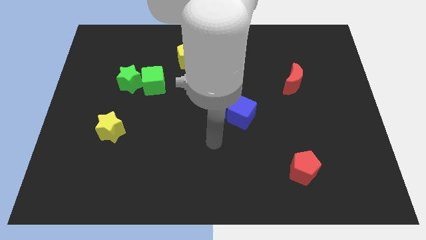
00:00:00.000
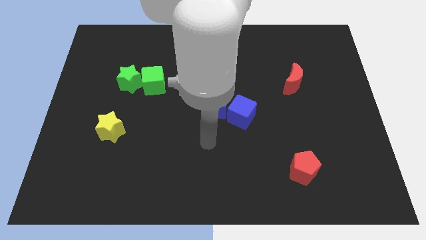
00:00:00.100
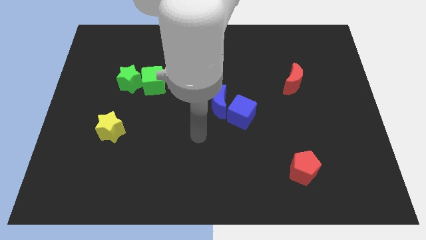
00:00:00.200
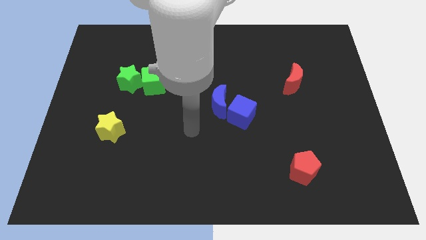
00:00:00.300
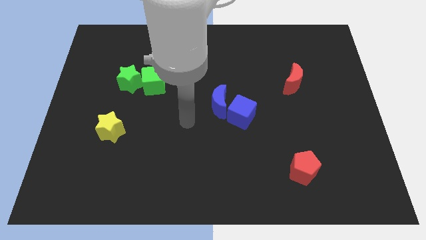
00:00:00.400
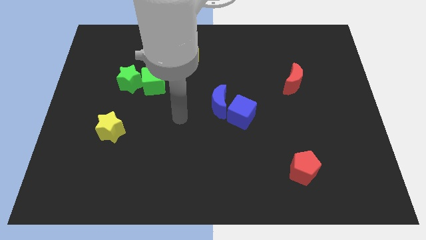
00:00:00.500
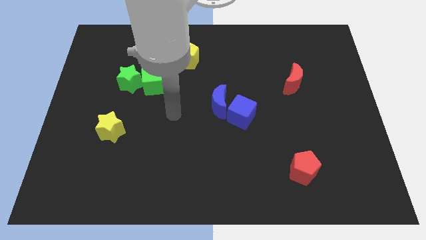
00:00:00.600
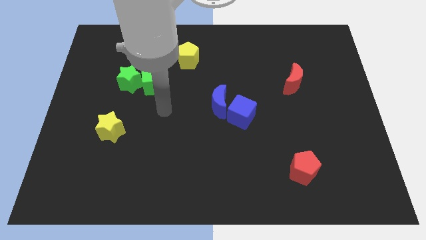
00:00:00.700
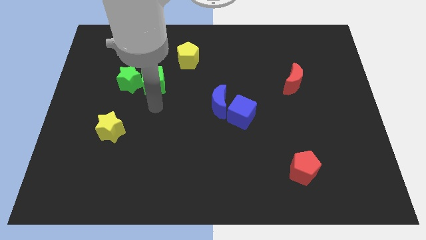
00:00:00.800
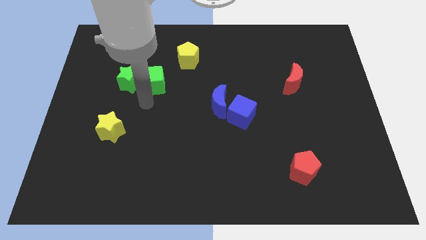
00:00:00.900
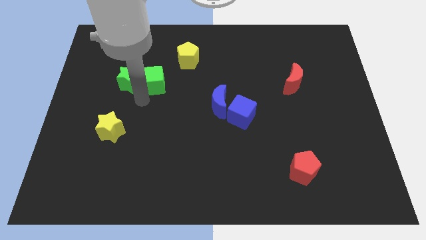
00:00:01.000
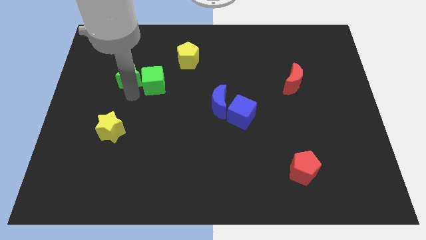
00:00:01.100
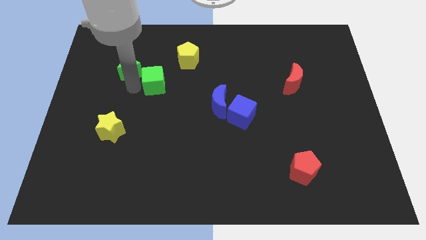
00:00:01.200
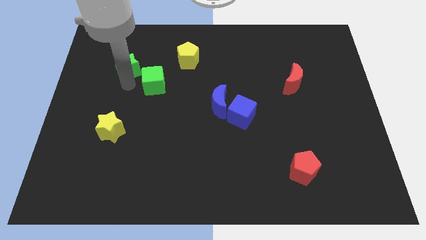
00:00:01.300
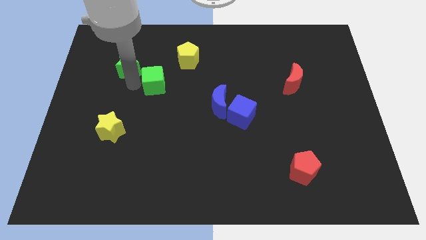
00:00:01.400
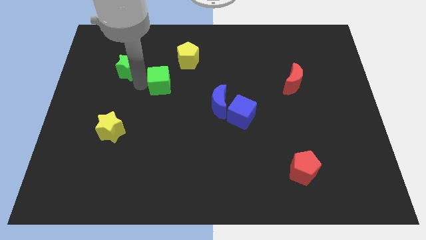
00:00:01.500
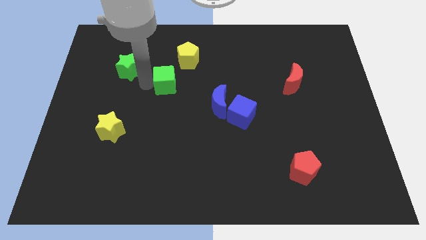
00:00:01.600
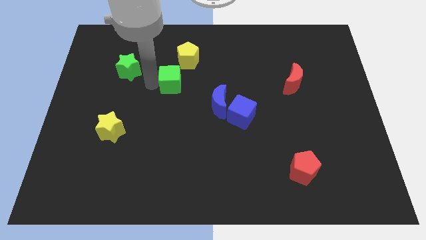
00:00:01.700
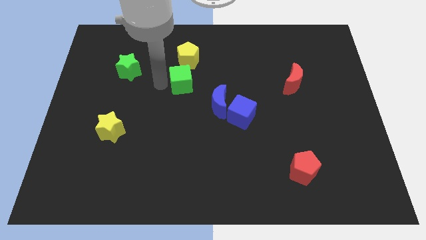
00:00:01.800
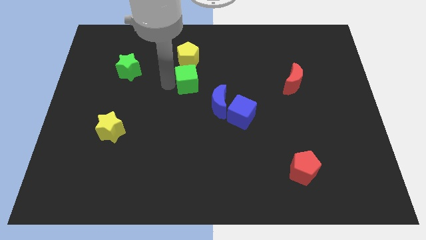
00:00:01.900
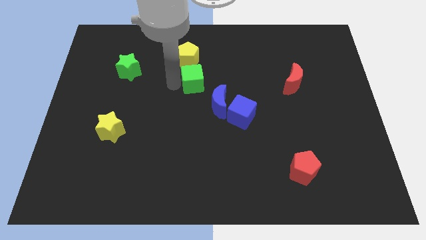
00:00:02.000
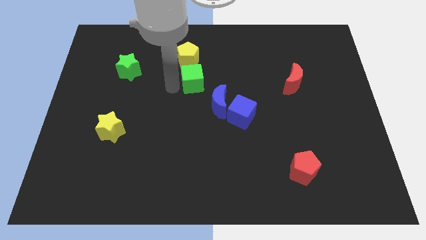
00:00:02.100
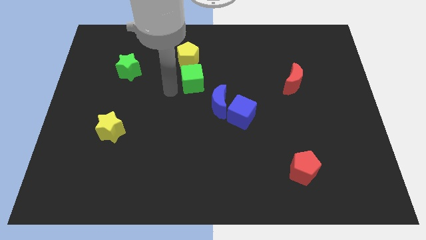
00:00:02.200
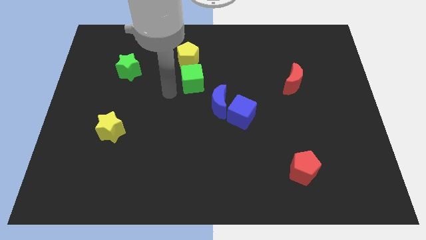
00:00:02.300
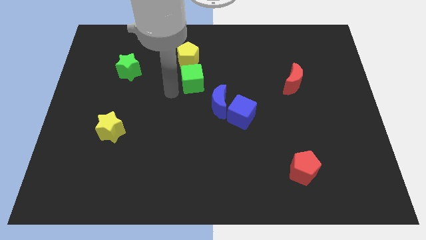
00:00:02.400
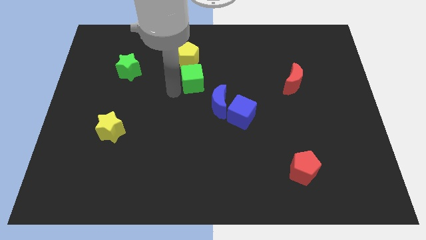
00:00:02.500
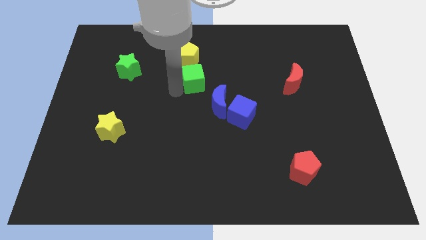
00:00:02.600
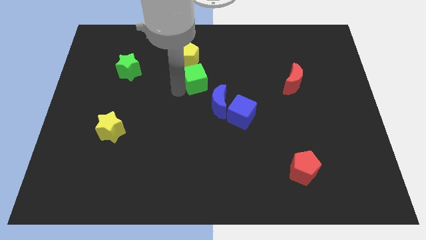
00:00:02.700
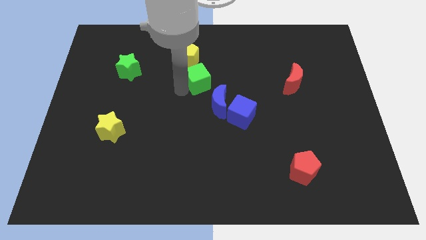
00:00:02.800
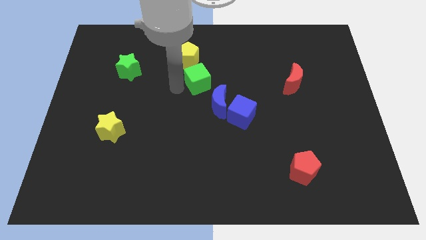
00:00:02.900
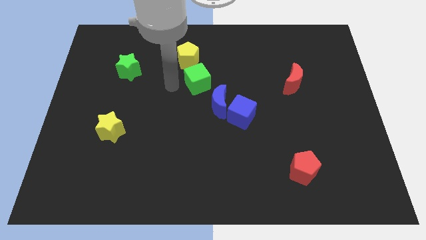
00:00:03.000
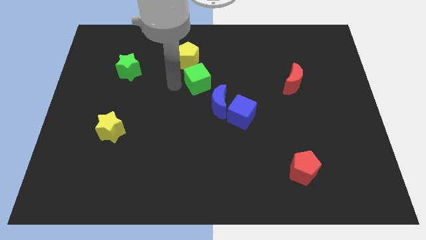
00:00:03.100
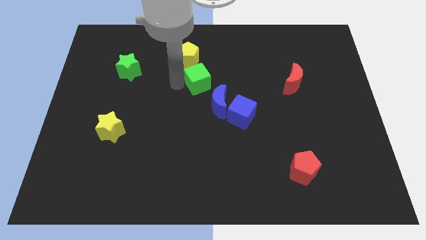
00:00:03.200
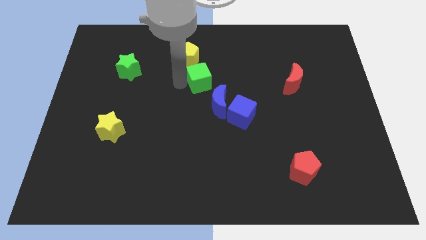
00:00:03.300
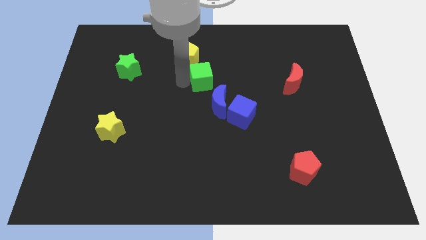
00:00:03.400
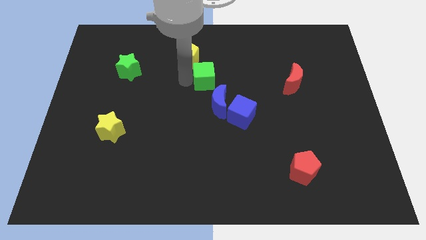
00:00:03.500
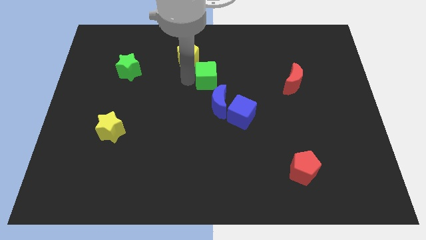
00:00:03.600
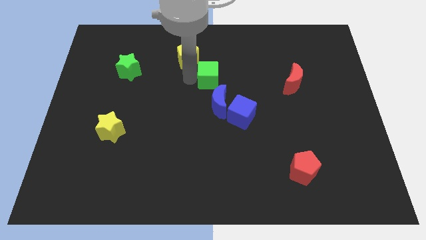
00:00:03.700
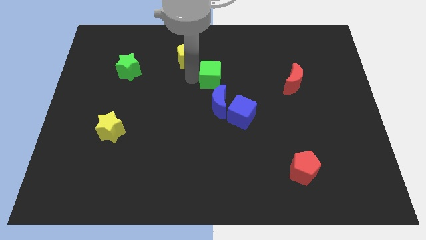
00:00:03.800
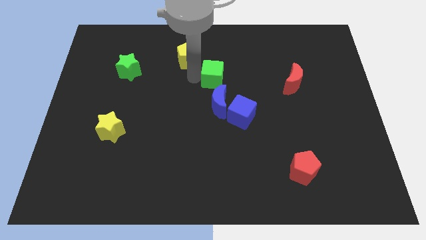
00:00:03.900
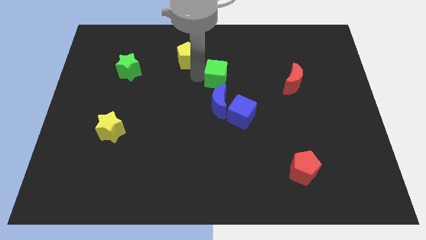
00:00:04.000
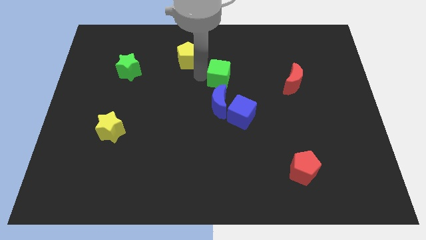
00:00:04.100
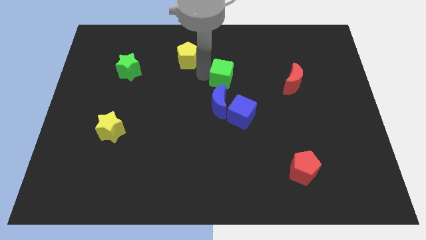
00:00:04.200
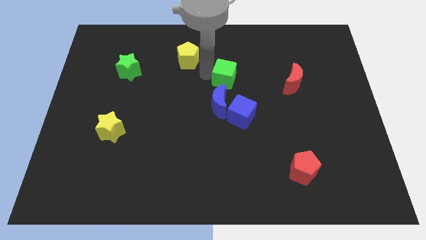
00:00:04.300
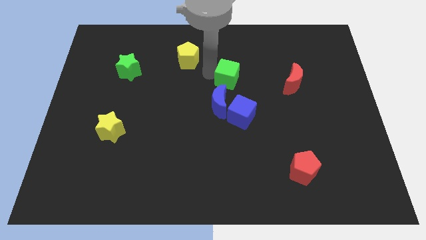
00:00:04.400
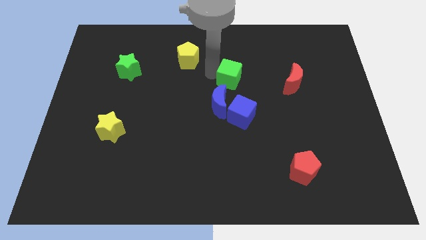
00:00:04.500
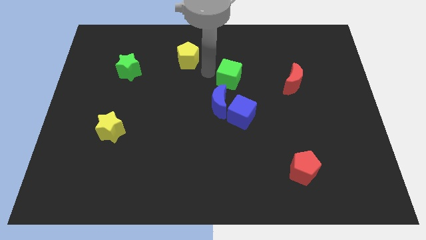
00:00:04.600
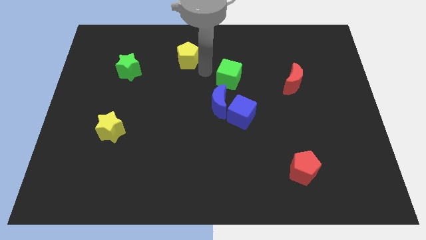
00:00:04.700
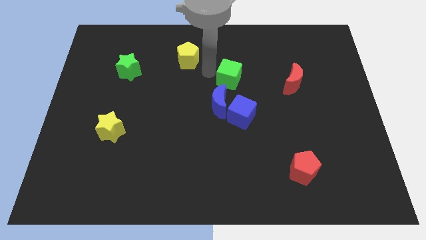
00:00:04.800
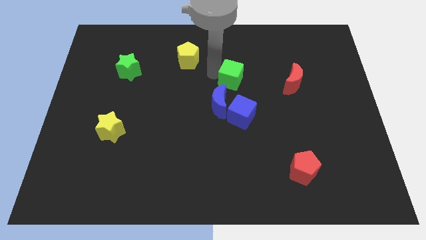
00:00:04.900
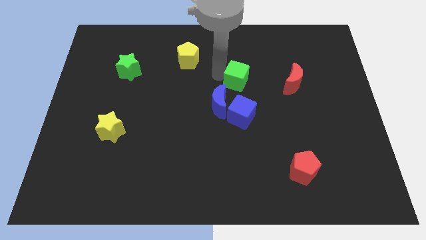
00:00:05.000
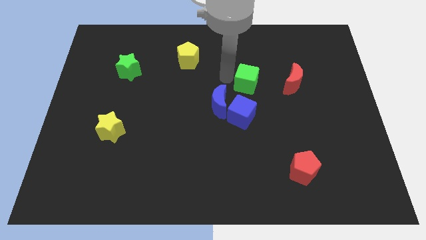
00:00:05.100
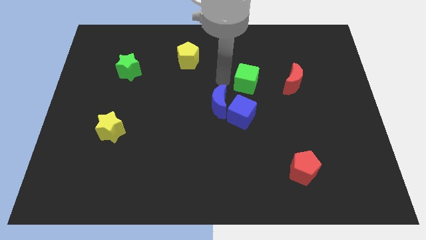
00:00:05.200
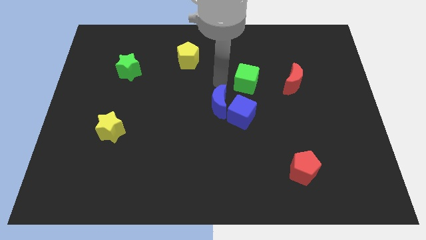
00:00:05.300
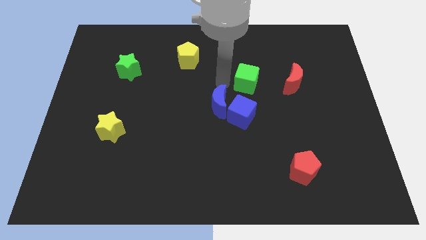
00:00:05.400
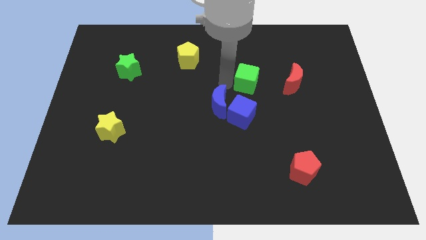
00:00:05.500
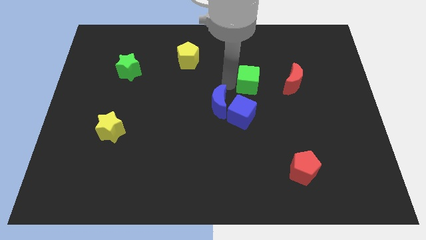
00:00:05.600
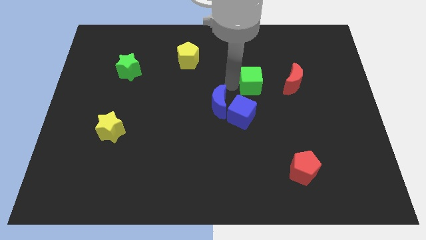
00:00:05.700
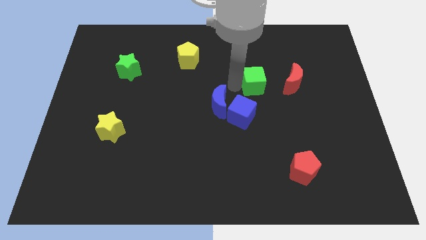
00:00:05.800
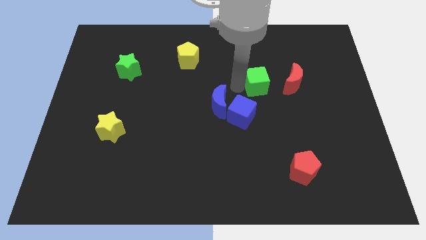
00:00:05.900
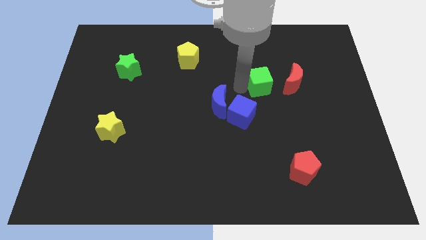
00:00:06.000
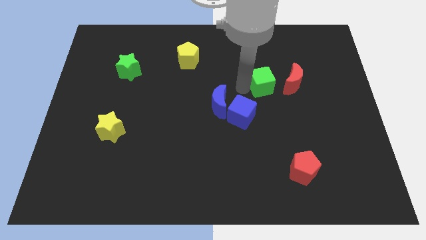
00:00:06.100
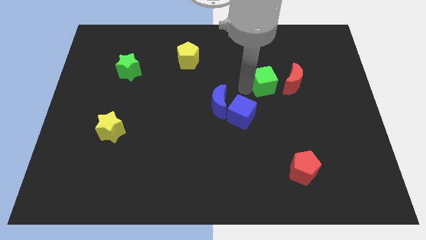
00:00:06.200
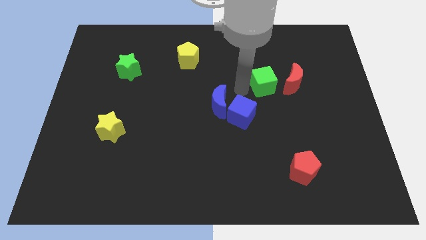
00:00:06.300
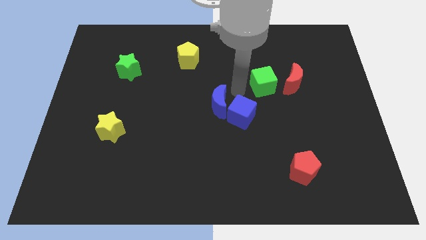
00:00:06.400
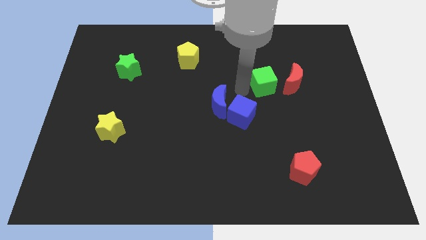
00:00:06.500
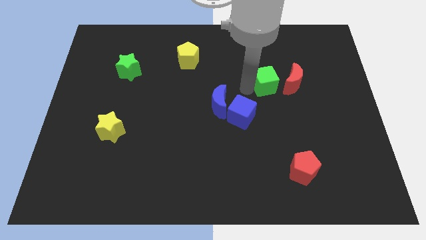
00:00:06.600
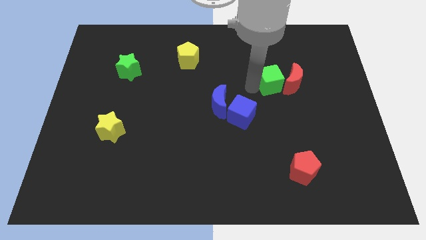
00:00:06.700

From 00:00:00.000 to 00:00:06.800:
push the green cube close to the red moon

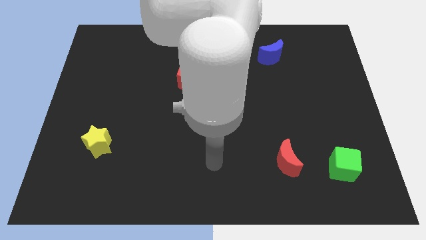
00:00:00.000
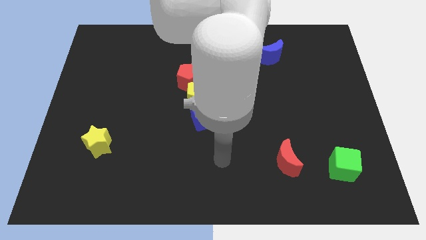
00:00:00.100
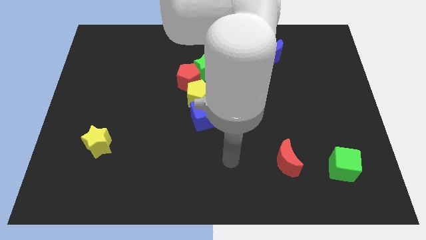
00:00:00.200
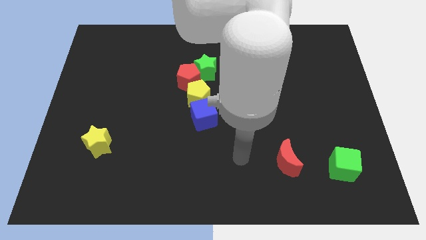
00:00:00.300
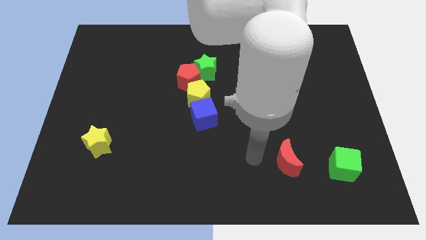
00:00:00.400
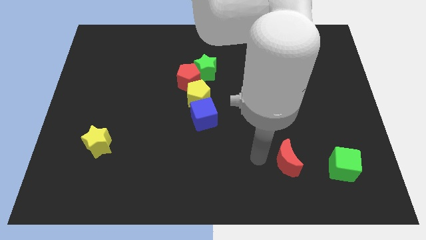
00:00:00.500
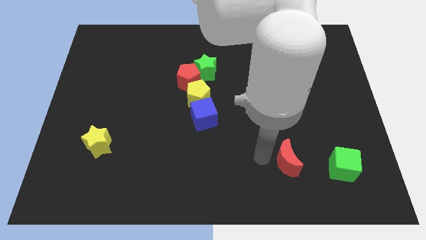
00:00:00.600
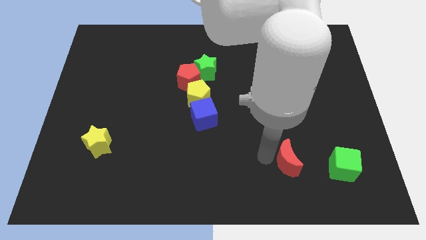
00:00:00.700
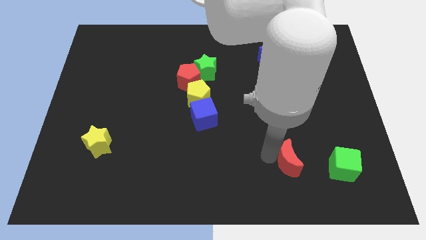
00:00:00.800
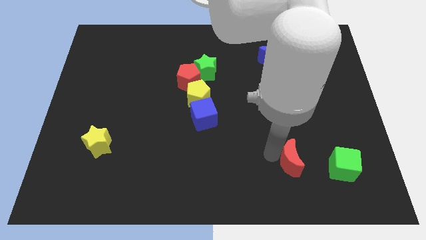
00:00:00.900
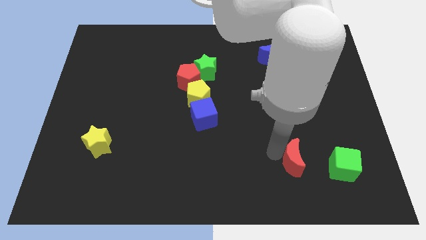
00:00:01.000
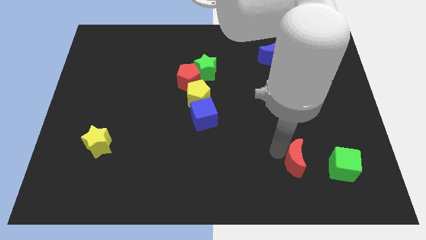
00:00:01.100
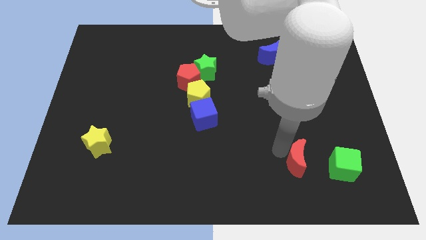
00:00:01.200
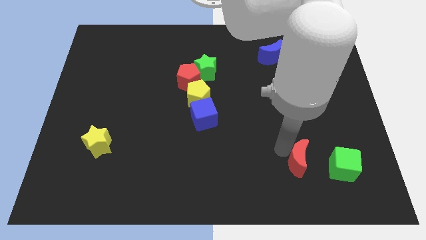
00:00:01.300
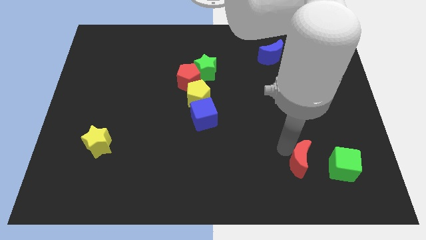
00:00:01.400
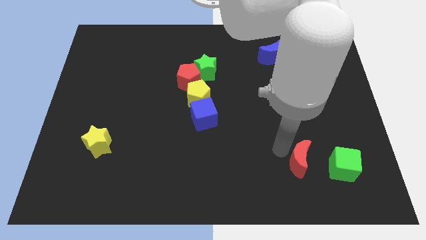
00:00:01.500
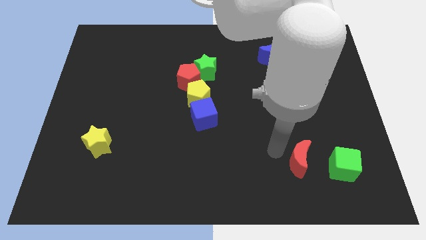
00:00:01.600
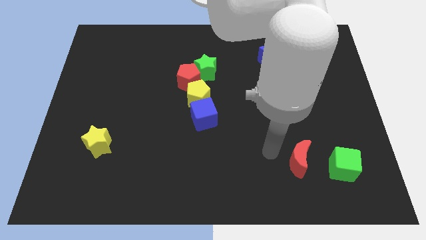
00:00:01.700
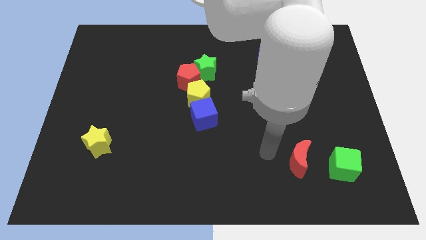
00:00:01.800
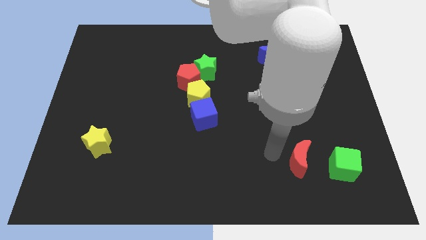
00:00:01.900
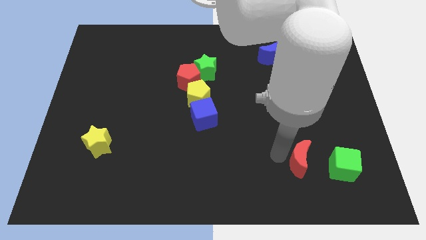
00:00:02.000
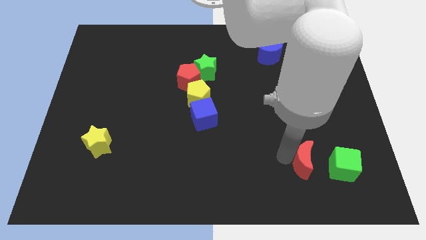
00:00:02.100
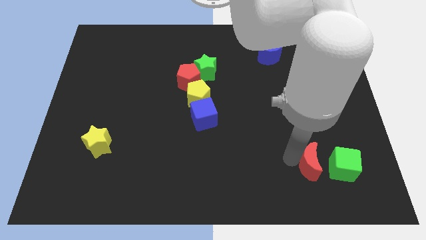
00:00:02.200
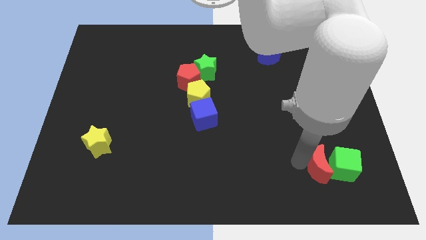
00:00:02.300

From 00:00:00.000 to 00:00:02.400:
push the red moon to the green cube
